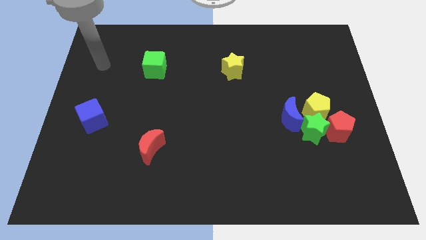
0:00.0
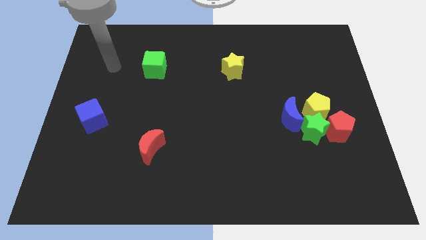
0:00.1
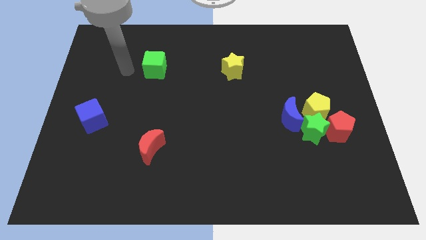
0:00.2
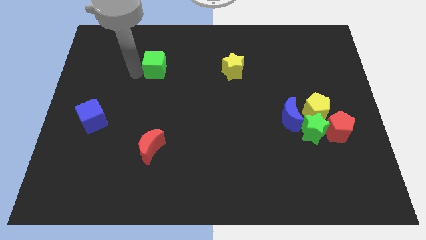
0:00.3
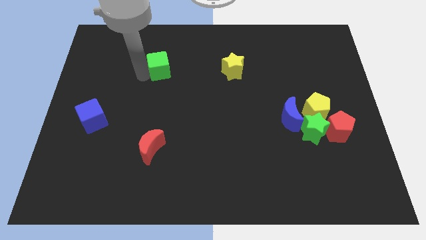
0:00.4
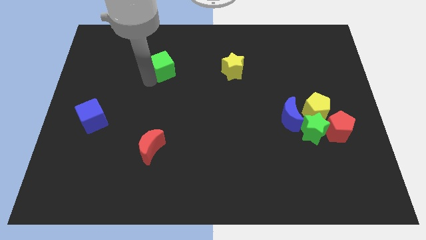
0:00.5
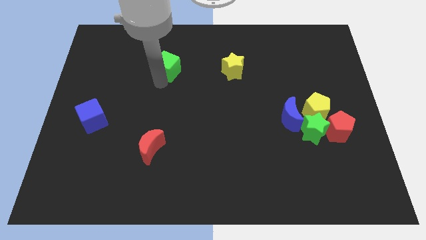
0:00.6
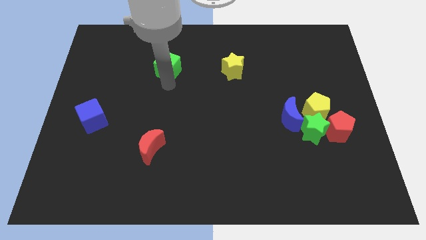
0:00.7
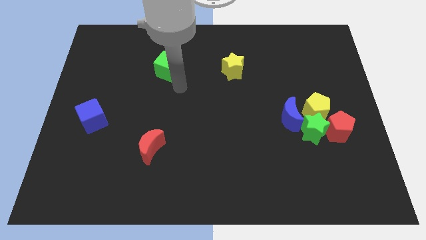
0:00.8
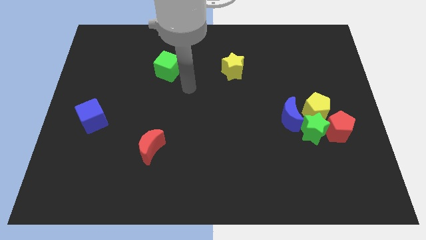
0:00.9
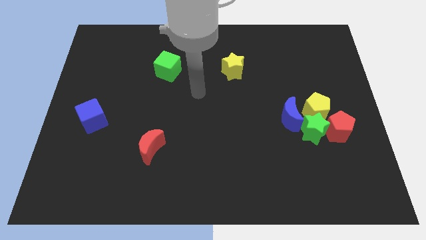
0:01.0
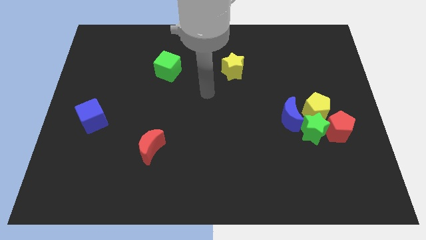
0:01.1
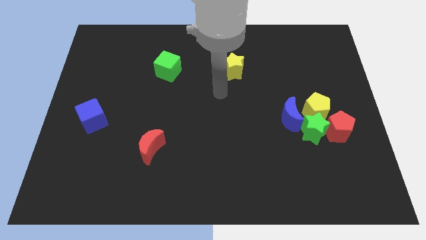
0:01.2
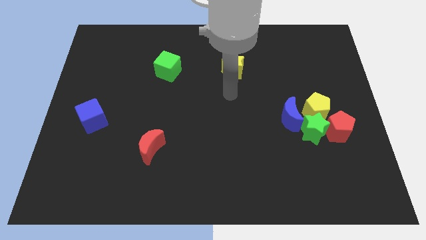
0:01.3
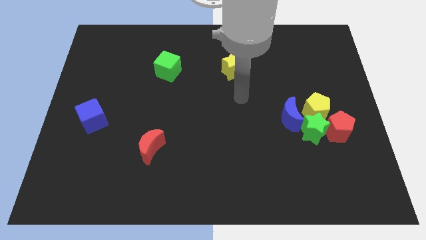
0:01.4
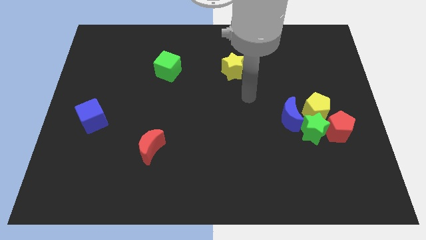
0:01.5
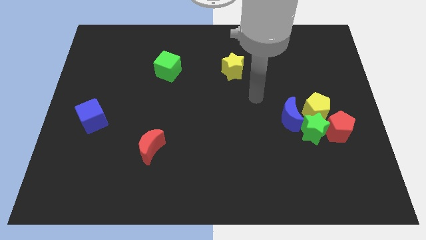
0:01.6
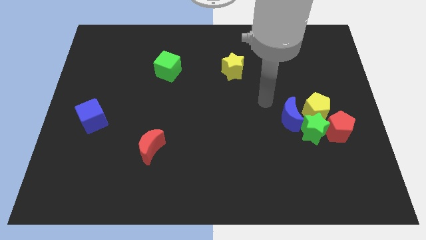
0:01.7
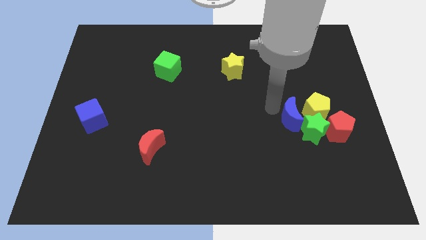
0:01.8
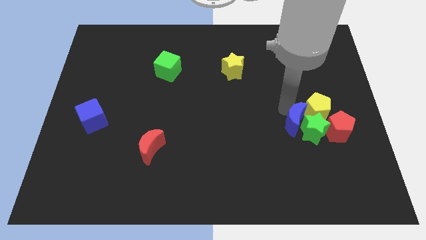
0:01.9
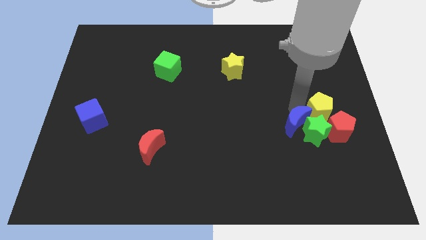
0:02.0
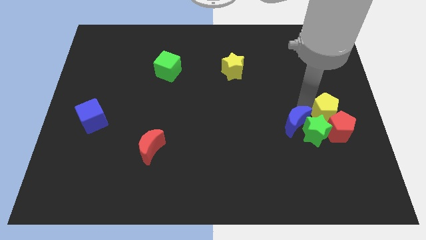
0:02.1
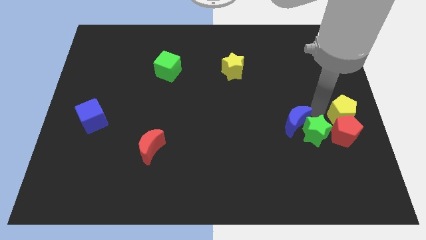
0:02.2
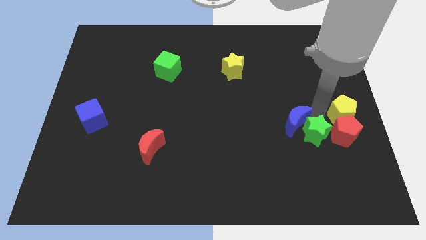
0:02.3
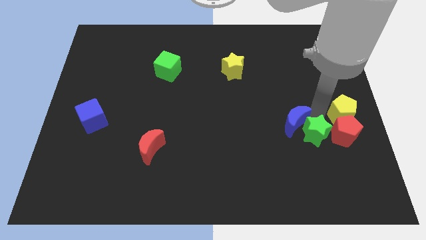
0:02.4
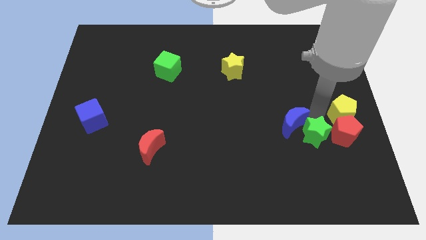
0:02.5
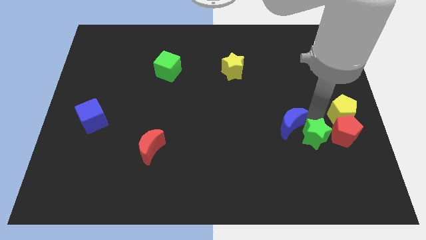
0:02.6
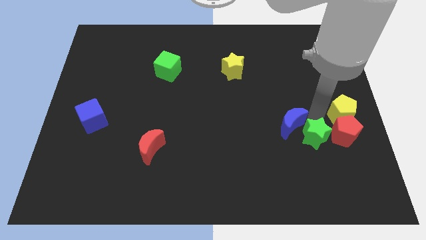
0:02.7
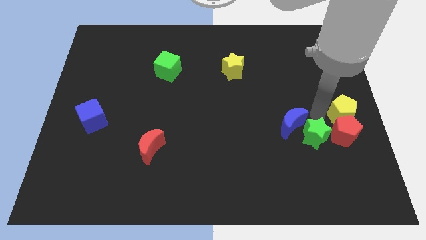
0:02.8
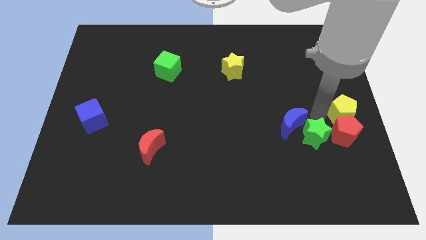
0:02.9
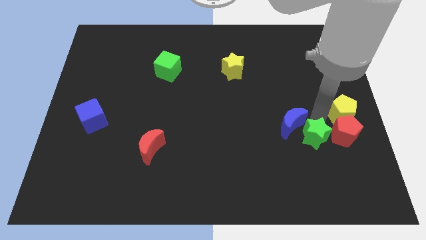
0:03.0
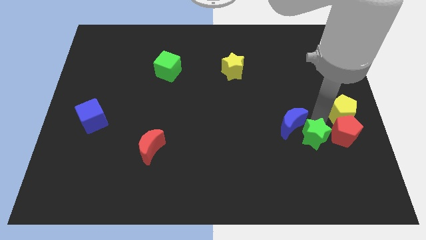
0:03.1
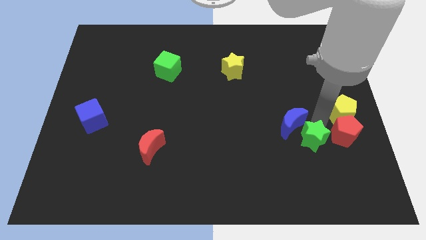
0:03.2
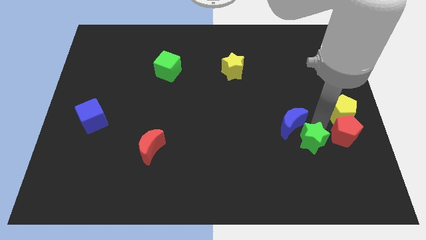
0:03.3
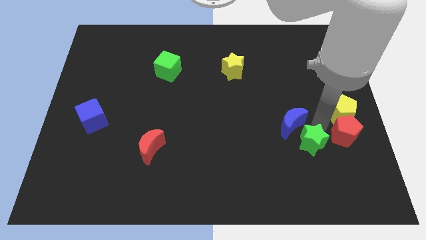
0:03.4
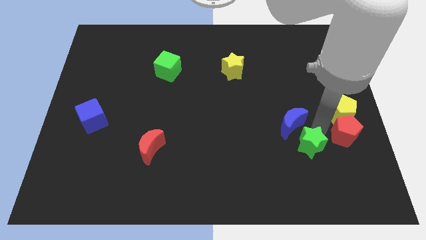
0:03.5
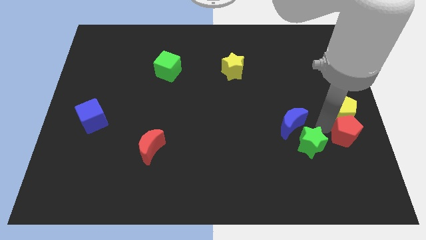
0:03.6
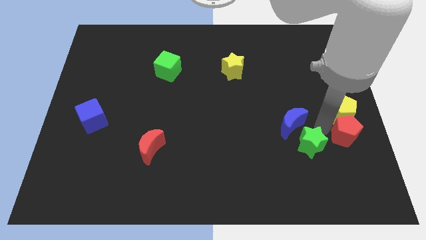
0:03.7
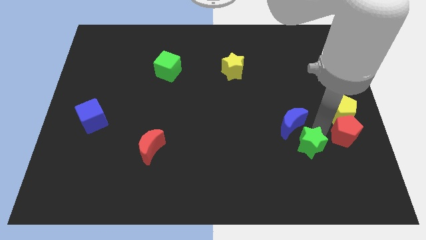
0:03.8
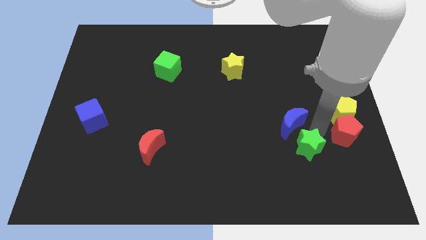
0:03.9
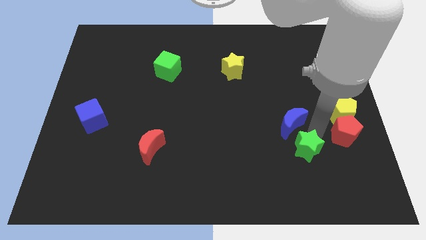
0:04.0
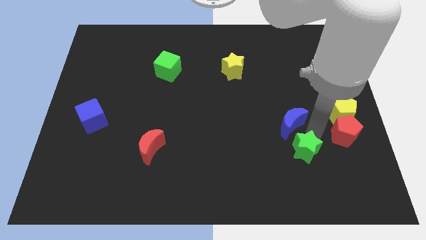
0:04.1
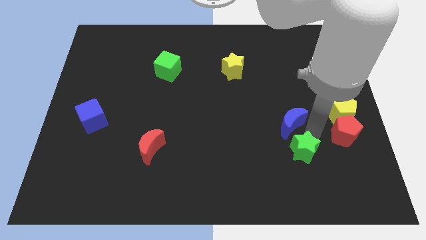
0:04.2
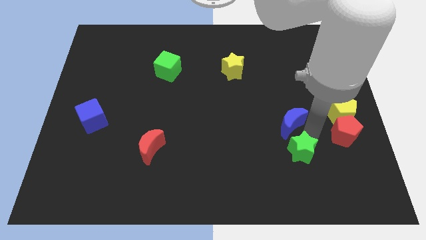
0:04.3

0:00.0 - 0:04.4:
separate the green star from the group of blocks

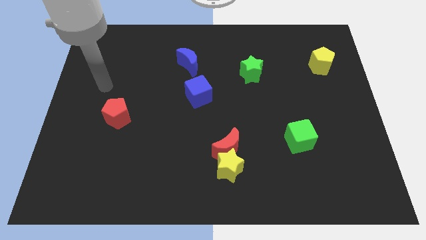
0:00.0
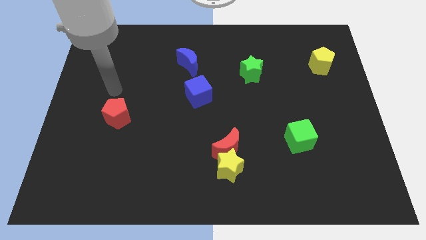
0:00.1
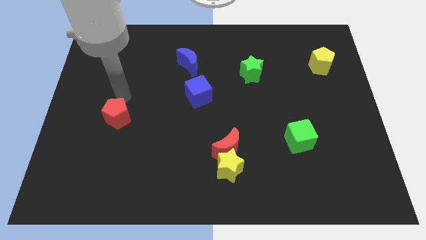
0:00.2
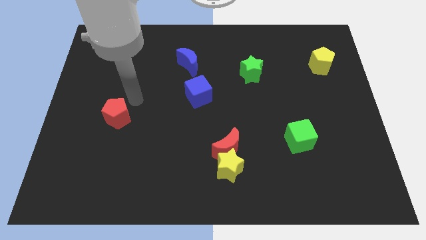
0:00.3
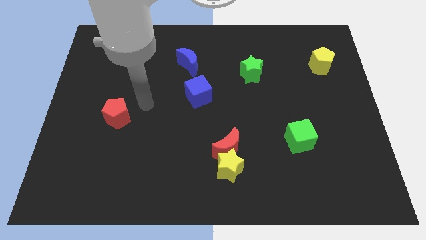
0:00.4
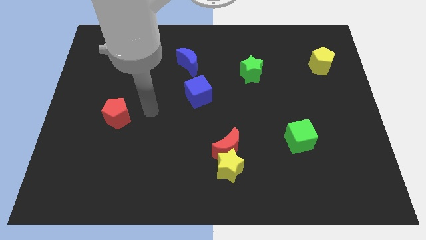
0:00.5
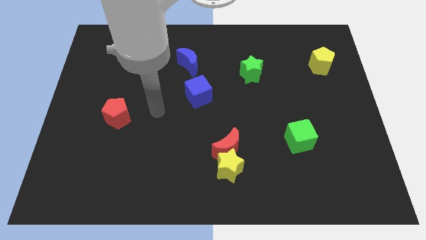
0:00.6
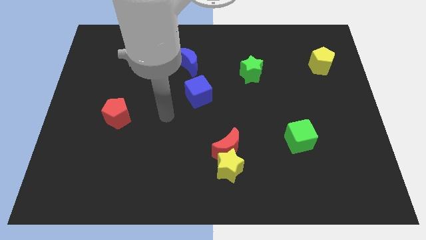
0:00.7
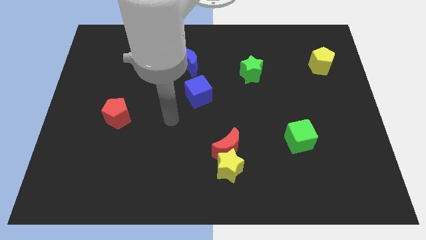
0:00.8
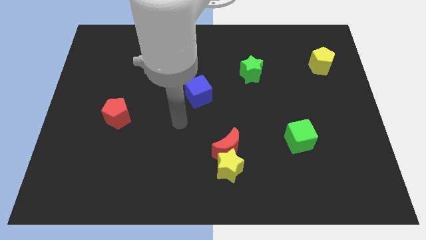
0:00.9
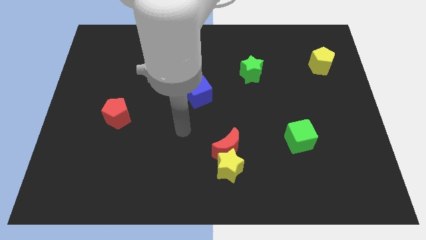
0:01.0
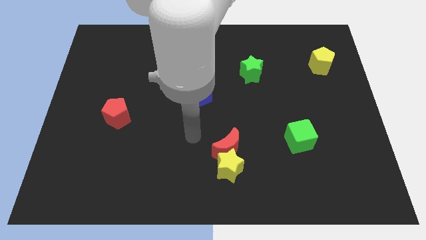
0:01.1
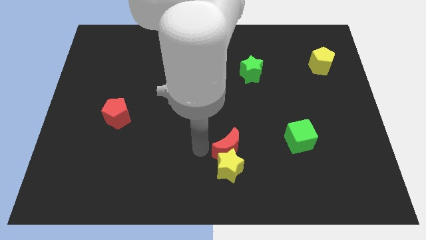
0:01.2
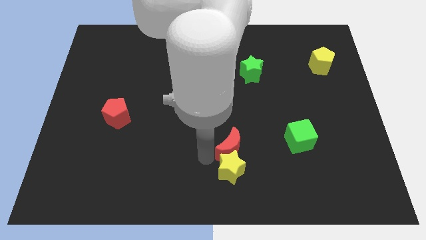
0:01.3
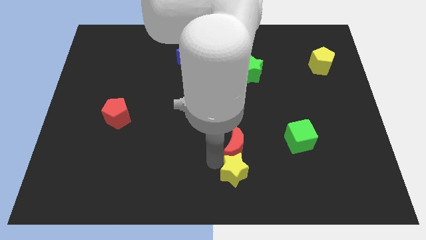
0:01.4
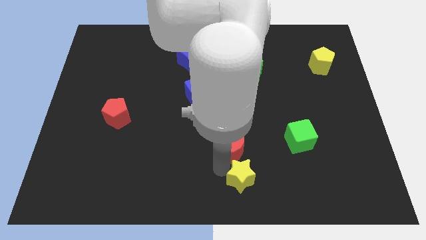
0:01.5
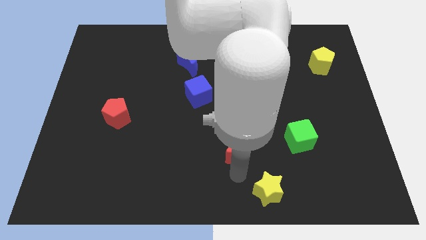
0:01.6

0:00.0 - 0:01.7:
separate the red moon from the yellow star

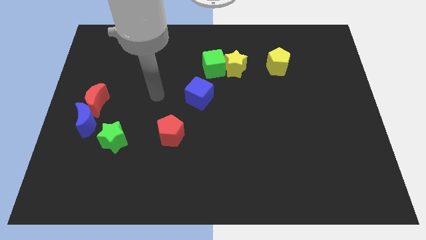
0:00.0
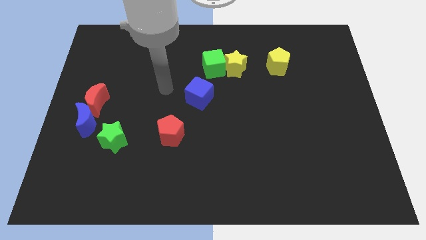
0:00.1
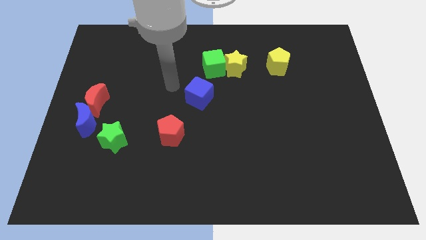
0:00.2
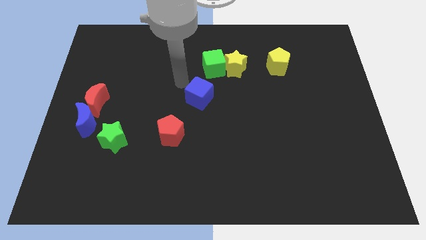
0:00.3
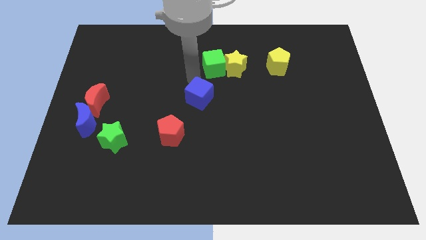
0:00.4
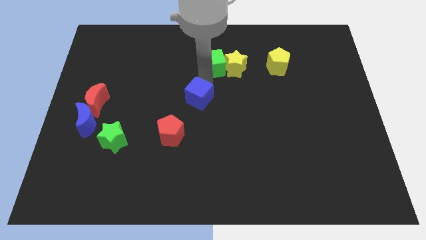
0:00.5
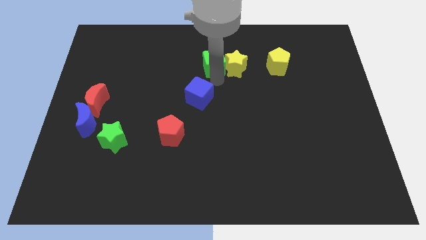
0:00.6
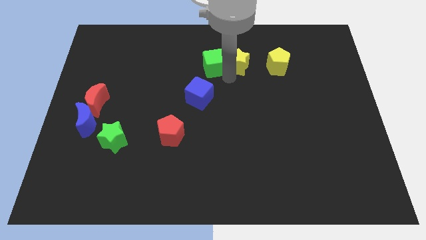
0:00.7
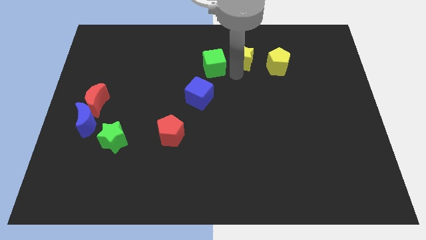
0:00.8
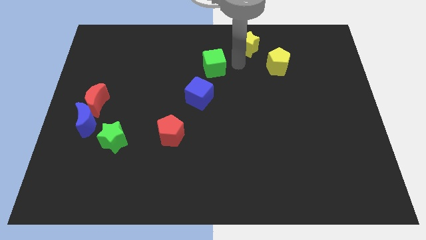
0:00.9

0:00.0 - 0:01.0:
pull the green cube apart from the yellow star

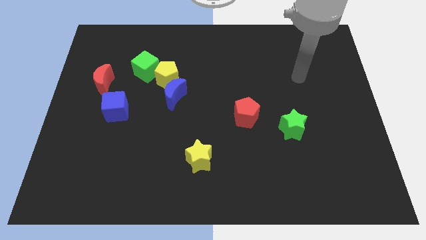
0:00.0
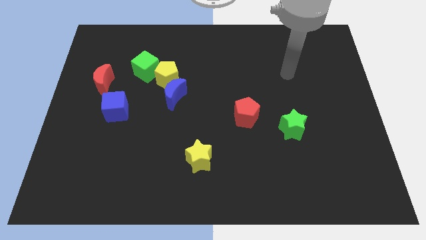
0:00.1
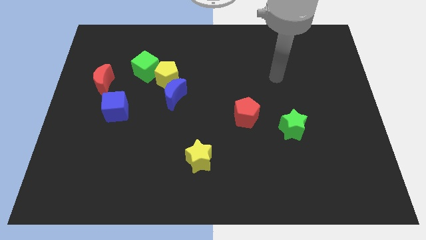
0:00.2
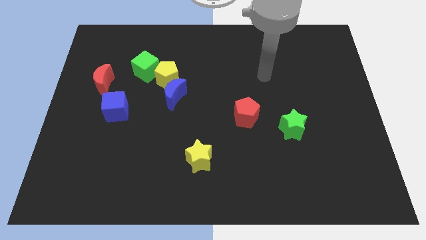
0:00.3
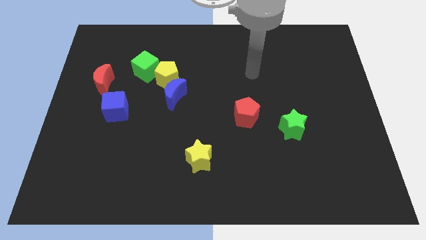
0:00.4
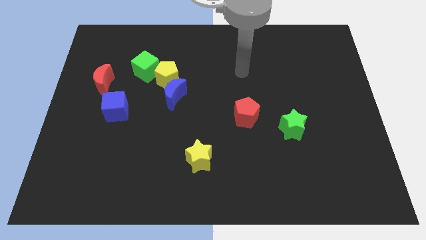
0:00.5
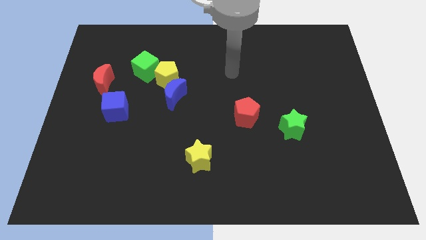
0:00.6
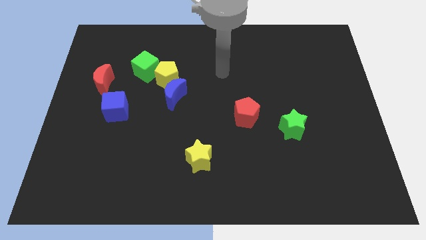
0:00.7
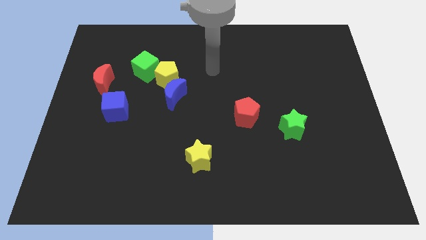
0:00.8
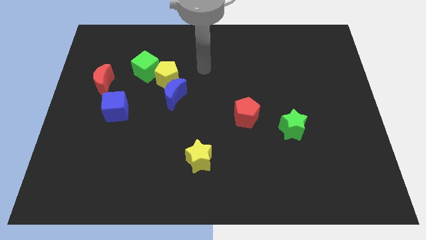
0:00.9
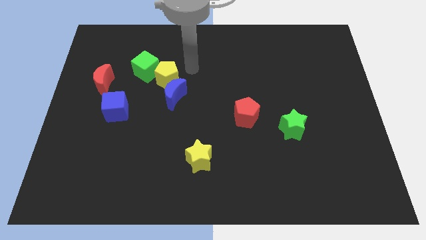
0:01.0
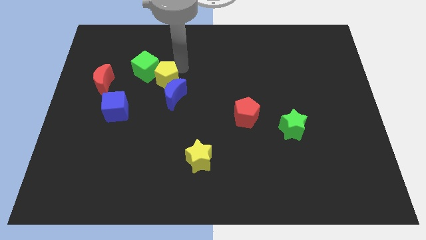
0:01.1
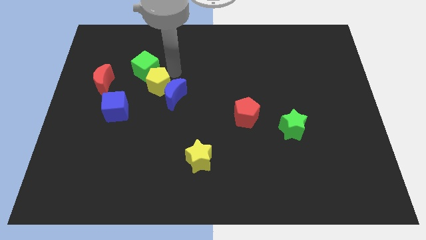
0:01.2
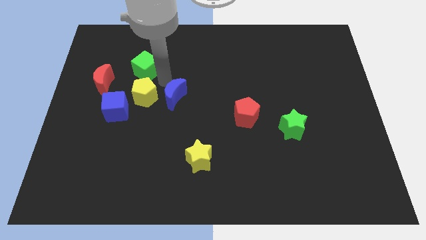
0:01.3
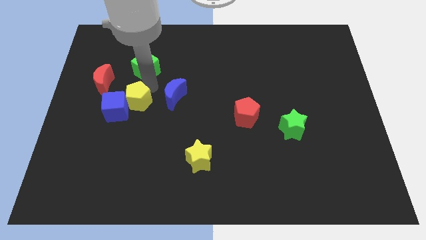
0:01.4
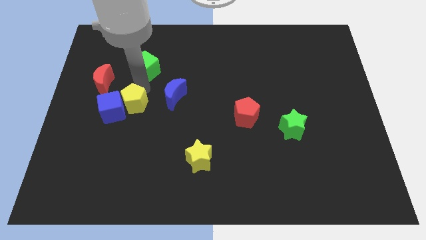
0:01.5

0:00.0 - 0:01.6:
pull the green cube apart from the yellow pentagon

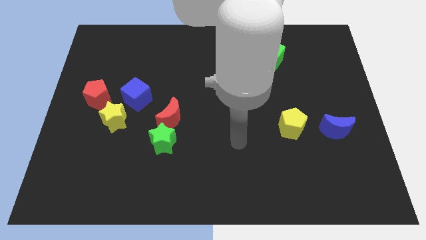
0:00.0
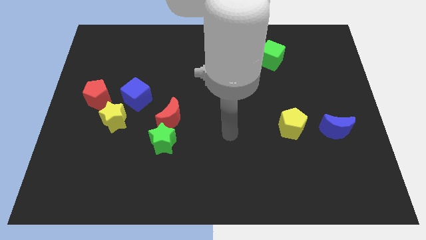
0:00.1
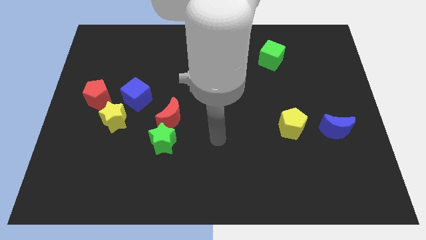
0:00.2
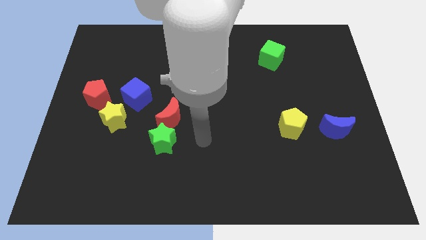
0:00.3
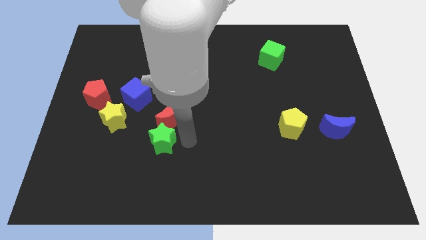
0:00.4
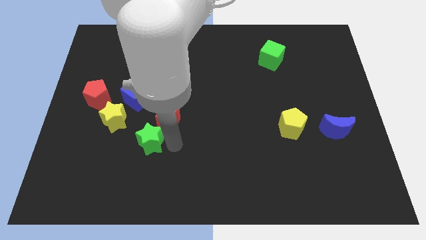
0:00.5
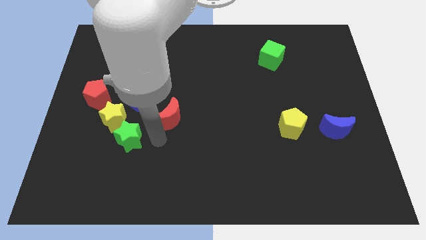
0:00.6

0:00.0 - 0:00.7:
pull the red moon apart from the green star
